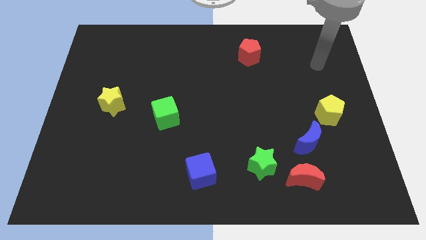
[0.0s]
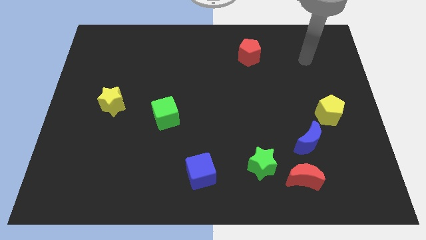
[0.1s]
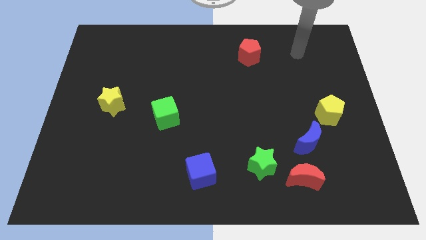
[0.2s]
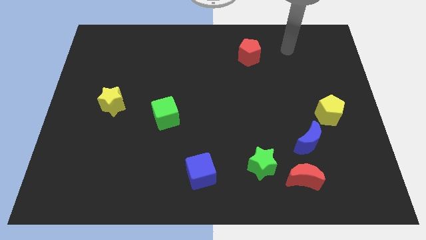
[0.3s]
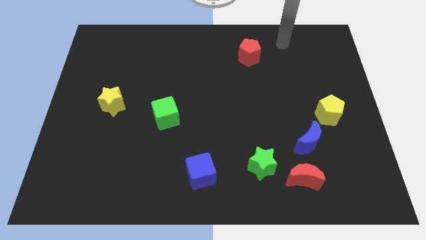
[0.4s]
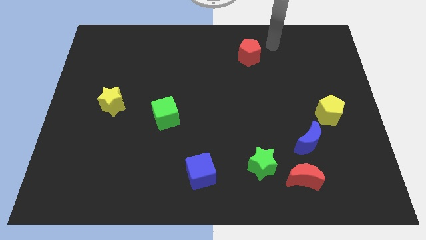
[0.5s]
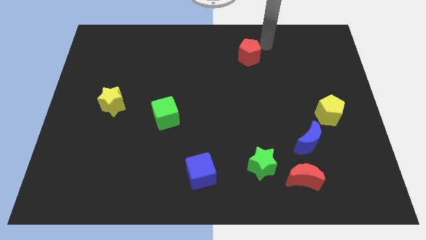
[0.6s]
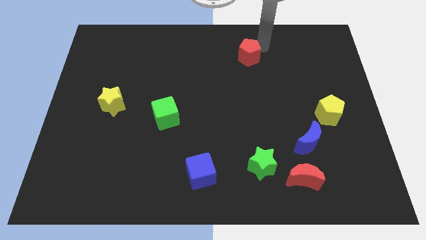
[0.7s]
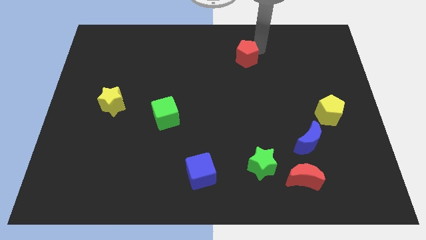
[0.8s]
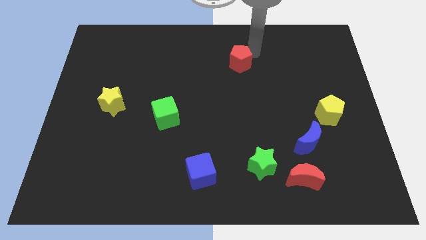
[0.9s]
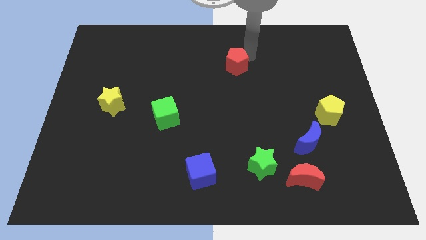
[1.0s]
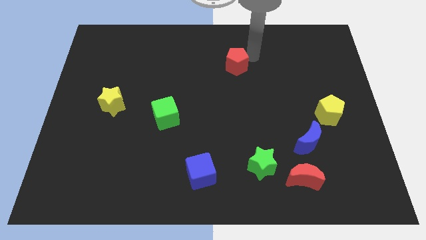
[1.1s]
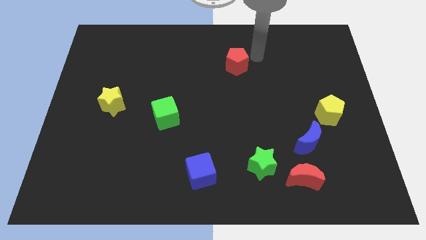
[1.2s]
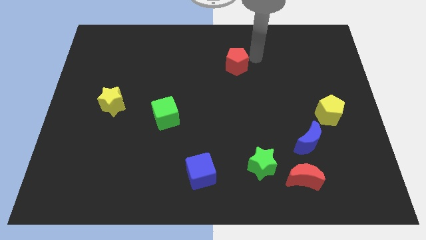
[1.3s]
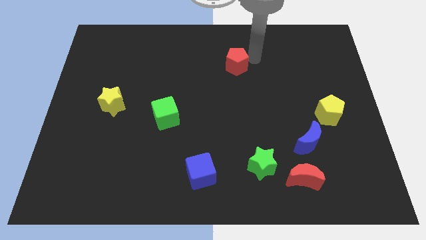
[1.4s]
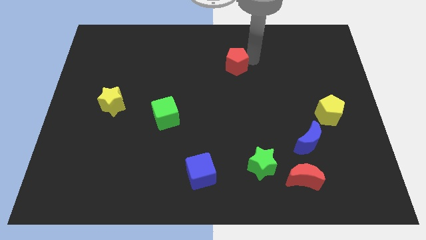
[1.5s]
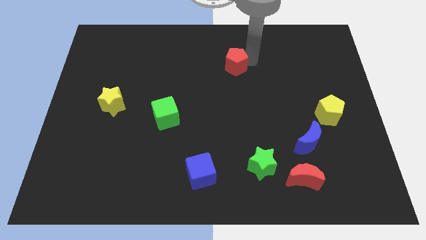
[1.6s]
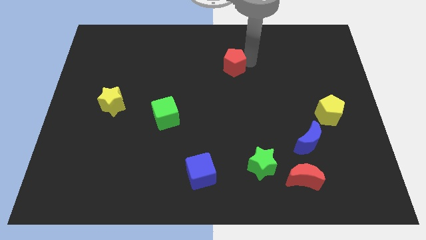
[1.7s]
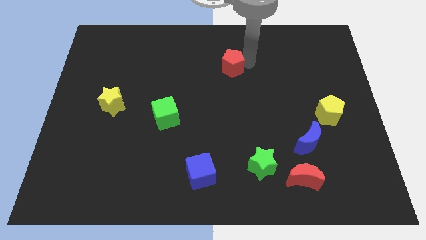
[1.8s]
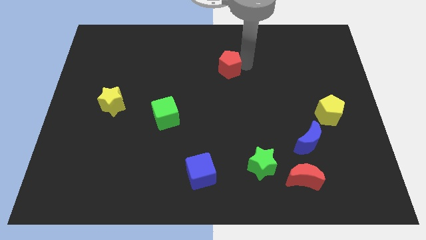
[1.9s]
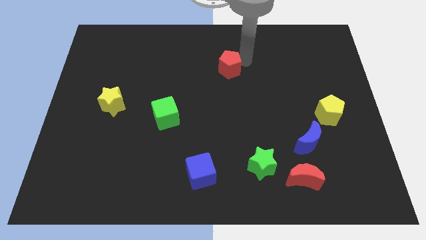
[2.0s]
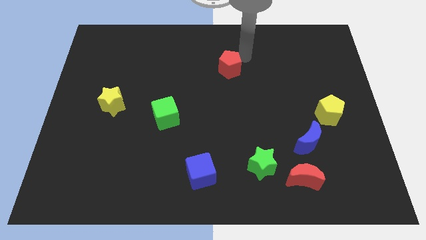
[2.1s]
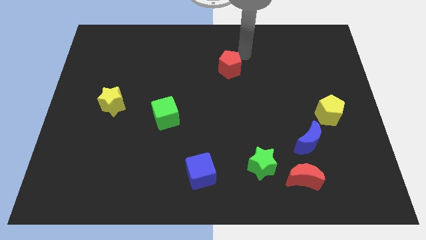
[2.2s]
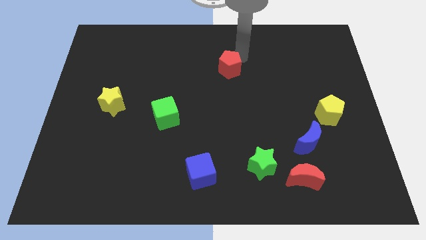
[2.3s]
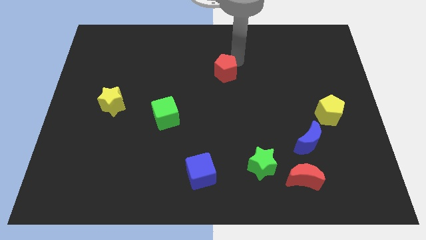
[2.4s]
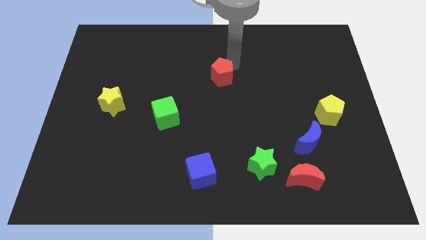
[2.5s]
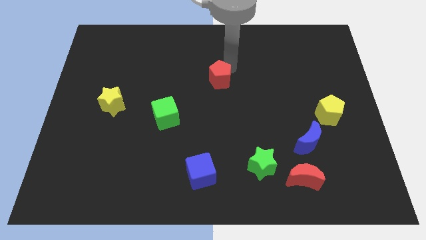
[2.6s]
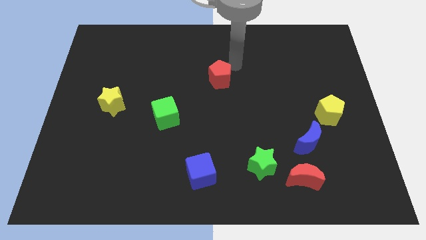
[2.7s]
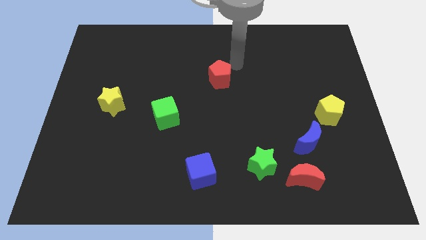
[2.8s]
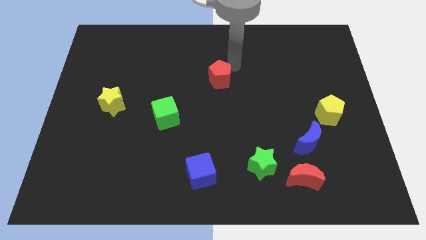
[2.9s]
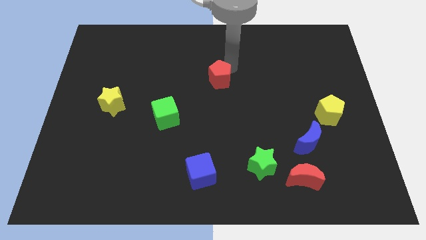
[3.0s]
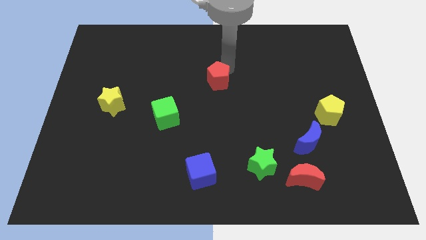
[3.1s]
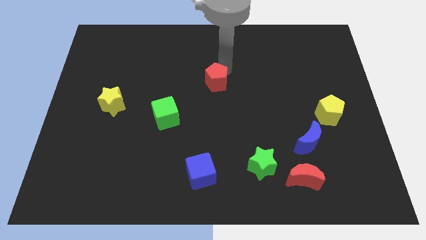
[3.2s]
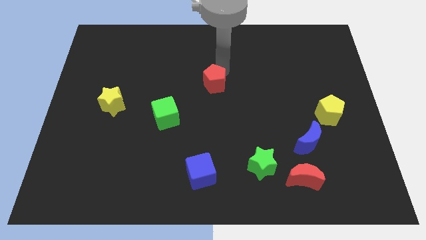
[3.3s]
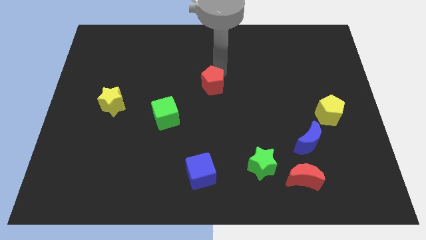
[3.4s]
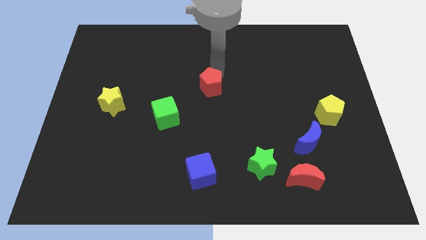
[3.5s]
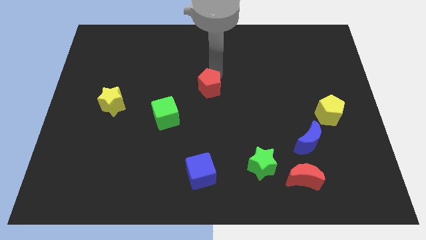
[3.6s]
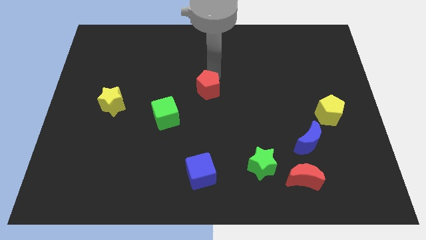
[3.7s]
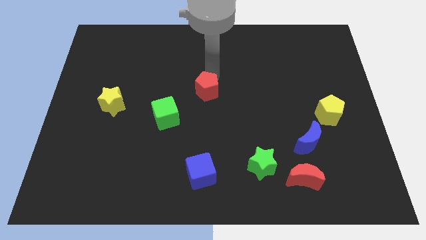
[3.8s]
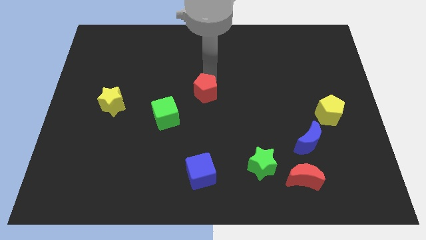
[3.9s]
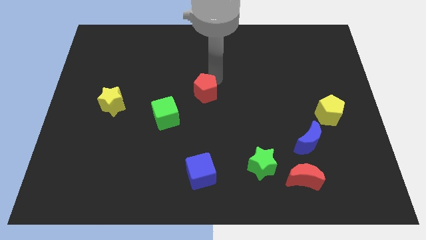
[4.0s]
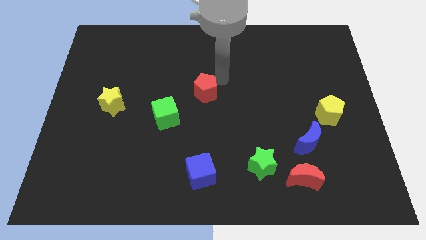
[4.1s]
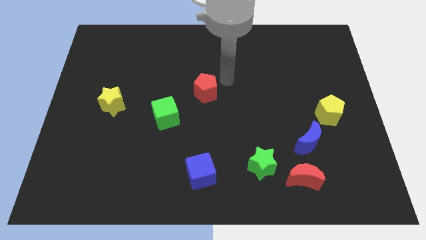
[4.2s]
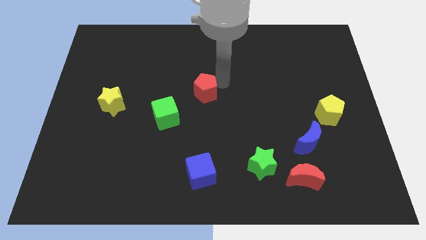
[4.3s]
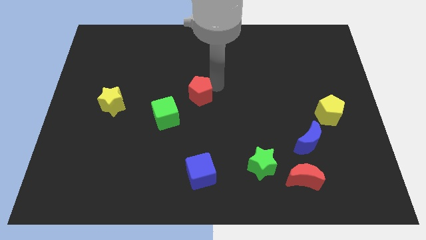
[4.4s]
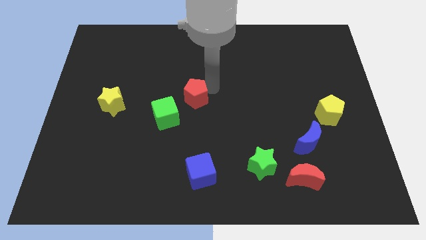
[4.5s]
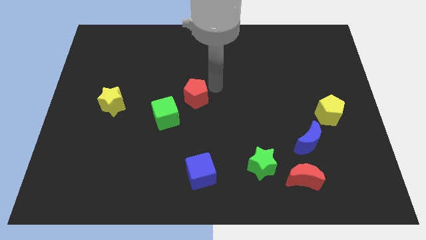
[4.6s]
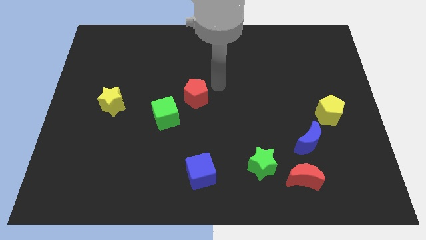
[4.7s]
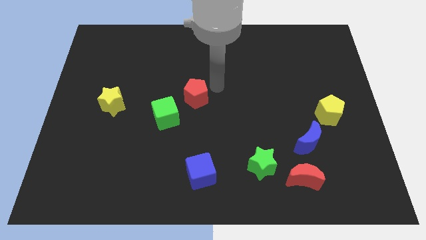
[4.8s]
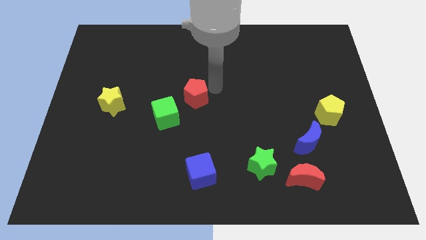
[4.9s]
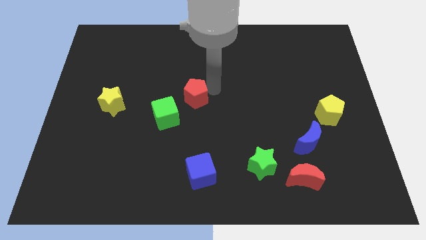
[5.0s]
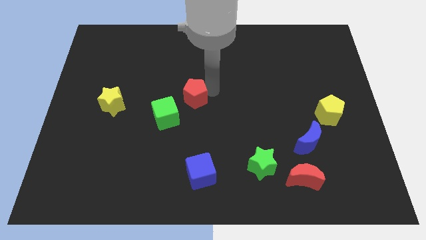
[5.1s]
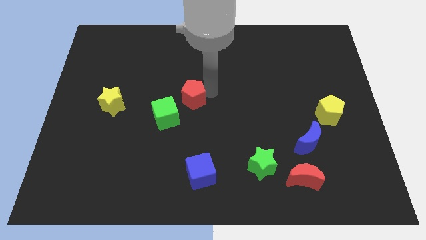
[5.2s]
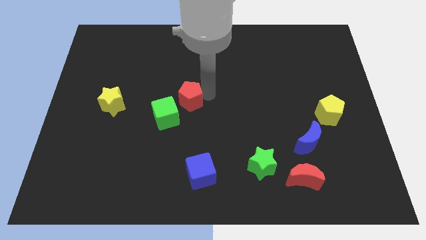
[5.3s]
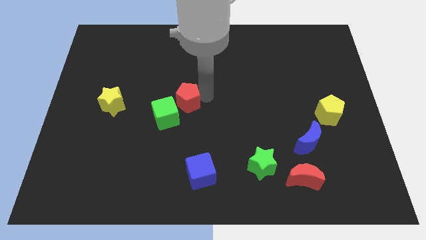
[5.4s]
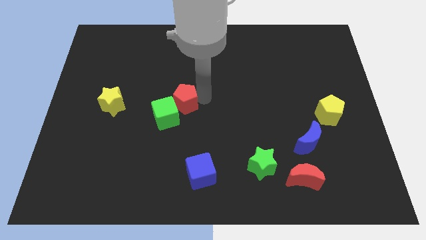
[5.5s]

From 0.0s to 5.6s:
push the red pentagon close to the green cube

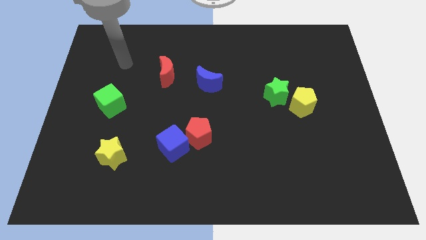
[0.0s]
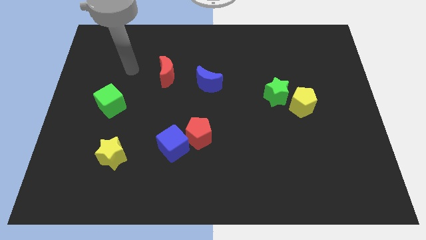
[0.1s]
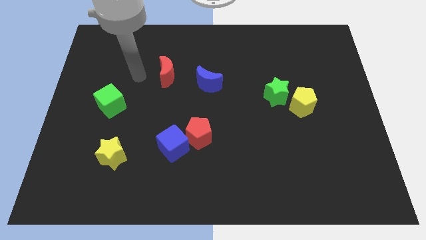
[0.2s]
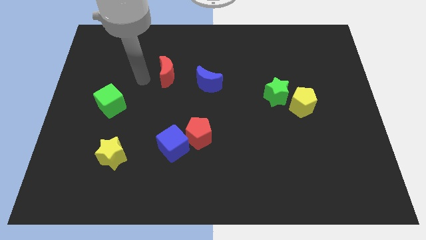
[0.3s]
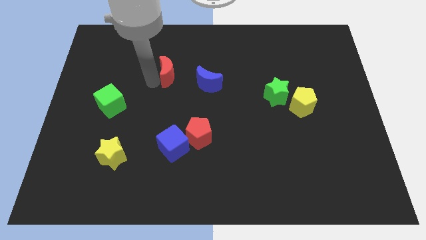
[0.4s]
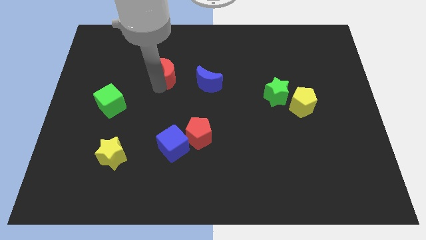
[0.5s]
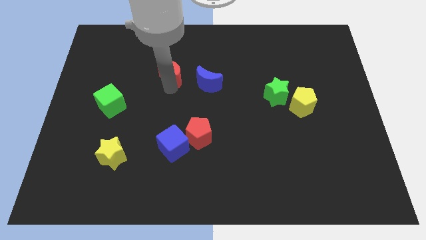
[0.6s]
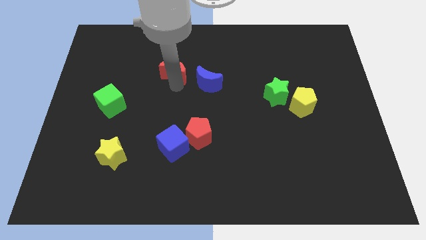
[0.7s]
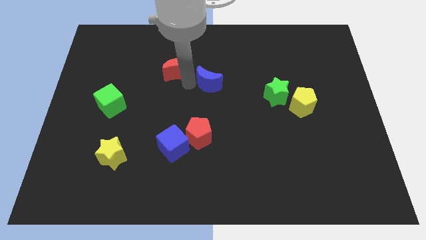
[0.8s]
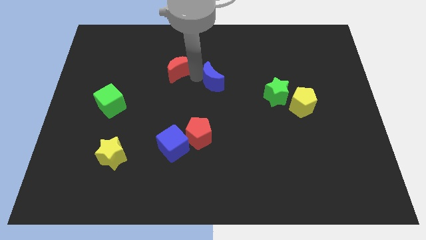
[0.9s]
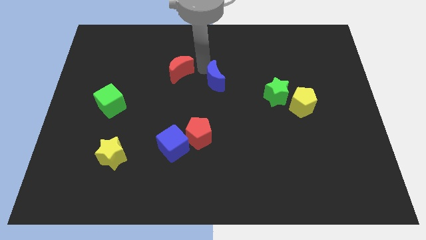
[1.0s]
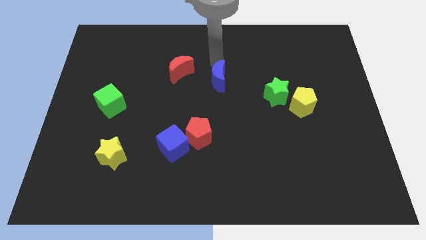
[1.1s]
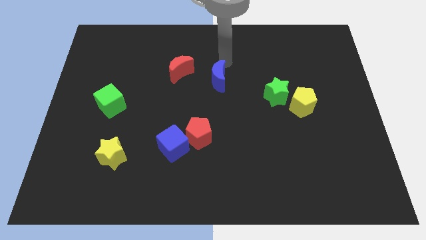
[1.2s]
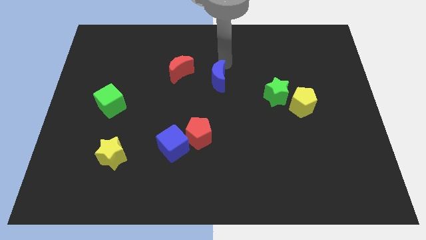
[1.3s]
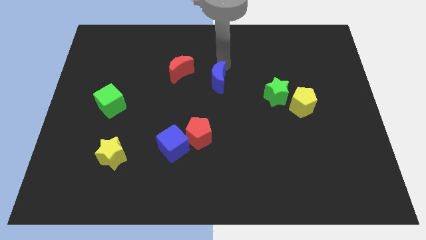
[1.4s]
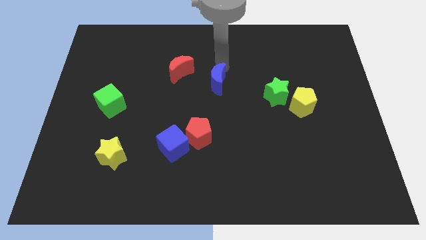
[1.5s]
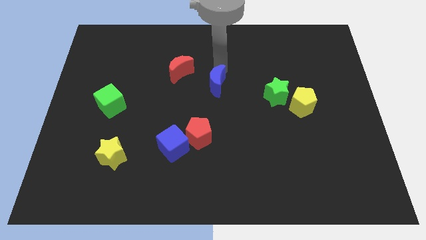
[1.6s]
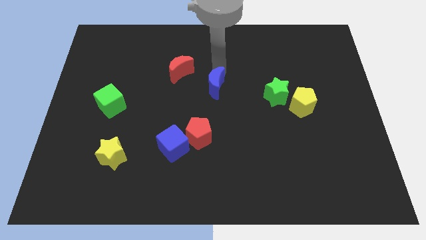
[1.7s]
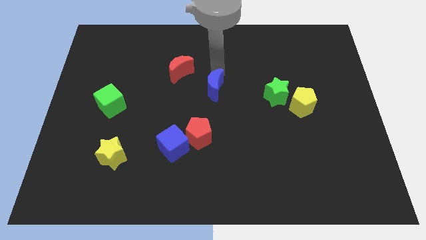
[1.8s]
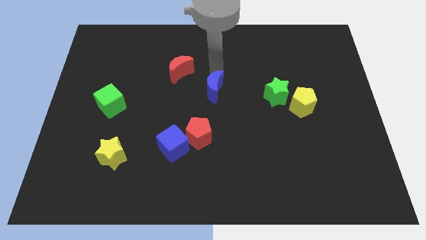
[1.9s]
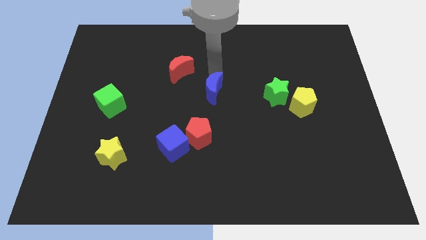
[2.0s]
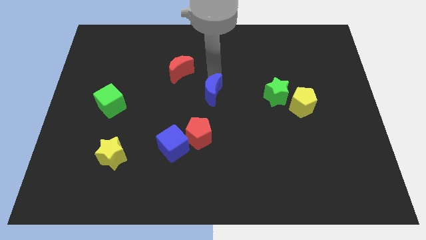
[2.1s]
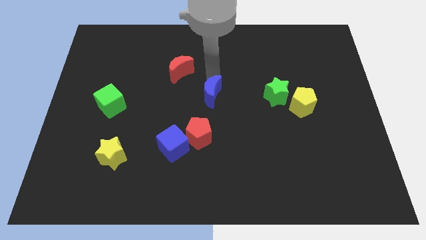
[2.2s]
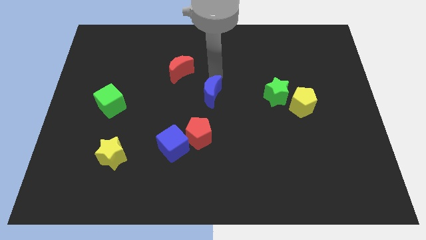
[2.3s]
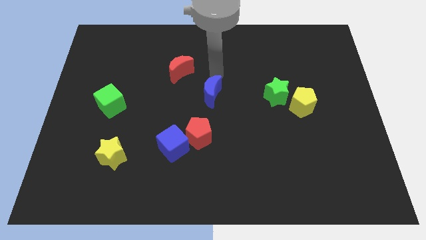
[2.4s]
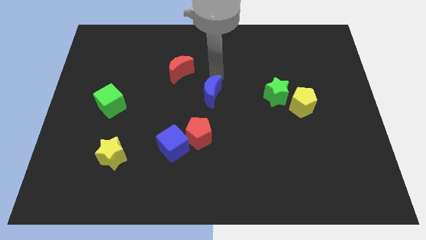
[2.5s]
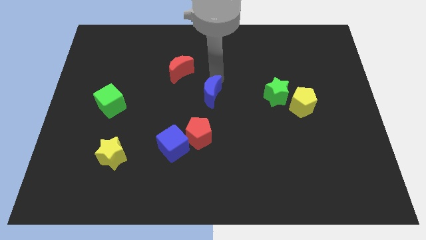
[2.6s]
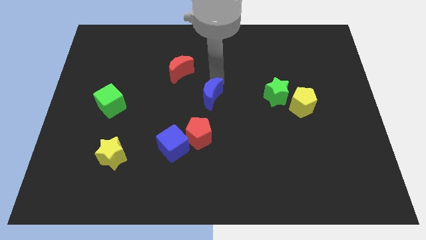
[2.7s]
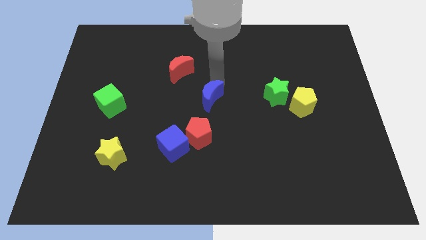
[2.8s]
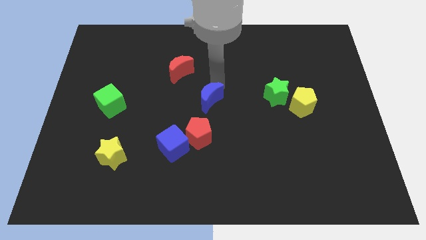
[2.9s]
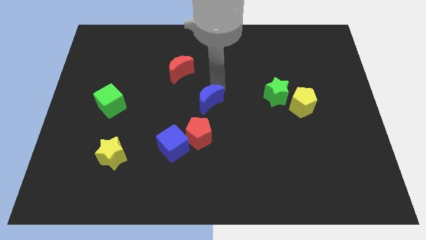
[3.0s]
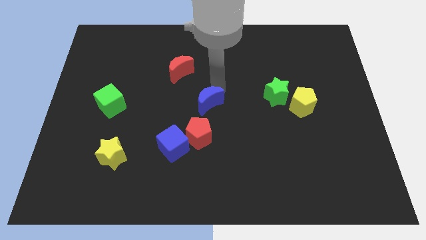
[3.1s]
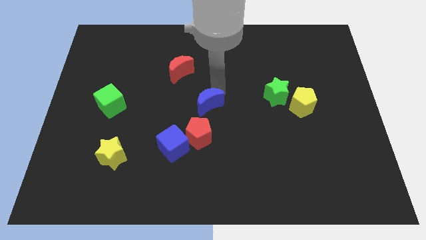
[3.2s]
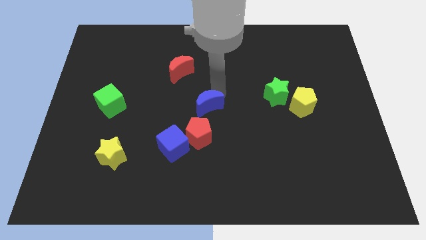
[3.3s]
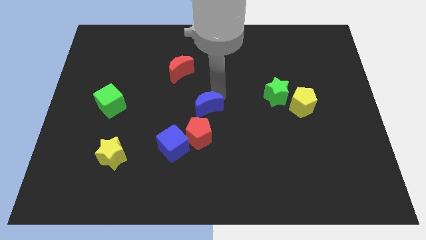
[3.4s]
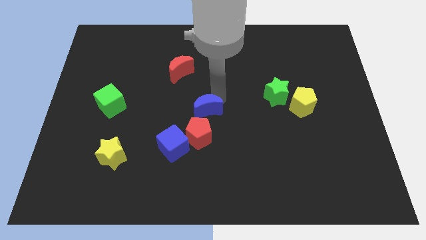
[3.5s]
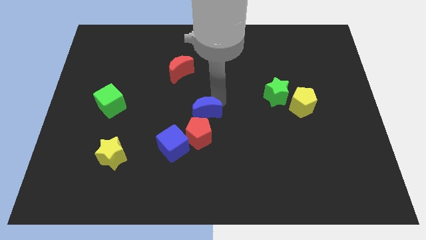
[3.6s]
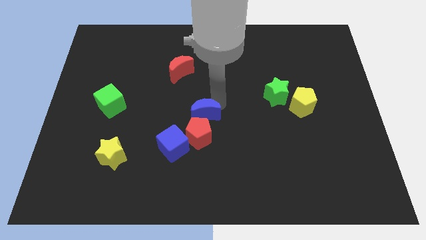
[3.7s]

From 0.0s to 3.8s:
push the blue moon towards the red pentagon
